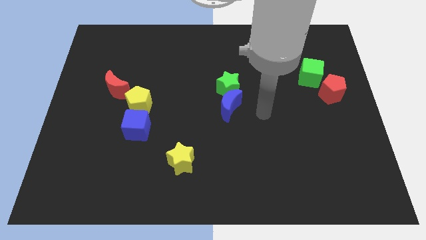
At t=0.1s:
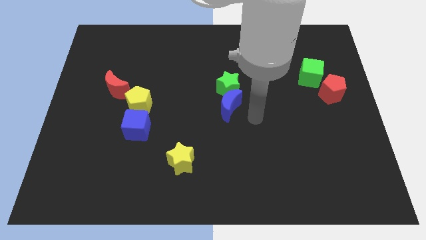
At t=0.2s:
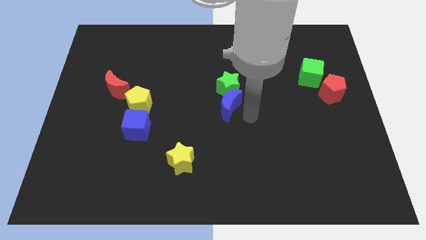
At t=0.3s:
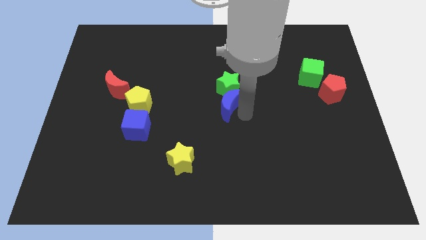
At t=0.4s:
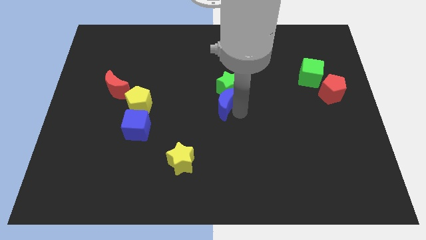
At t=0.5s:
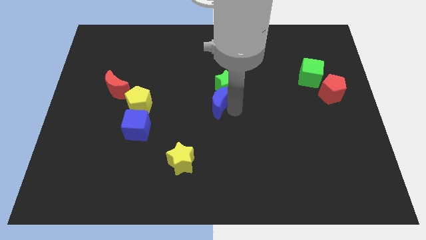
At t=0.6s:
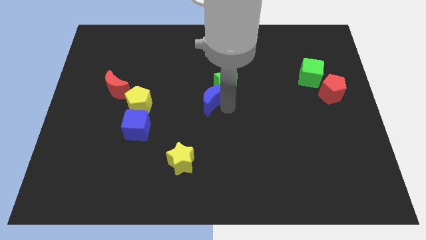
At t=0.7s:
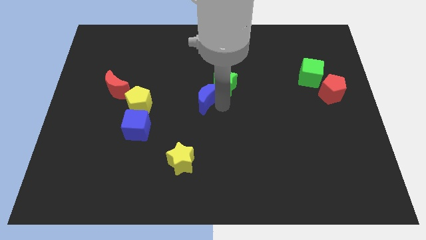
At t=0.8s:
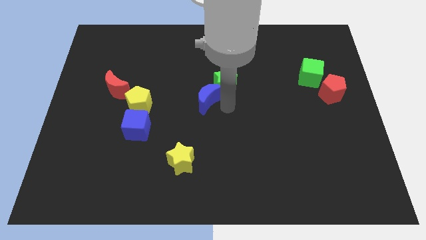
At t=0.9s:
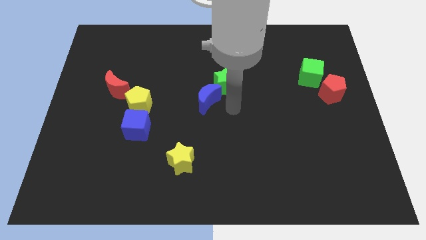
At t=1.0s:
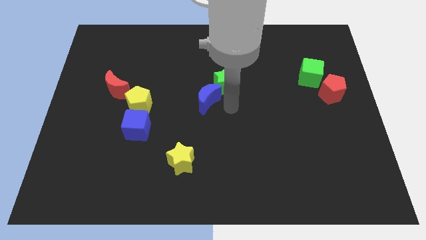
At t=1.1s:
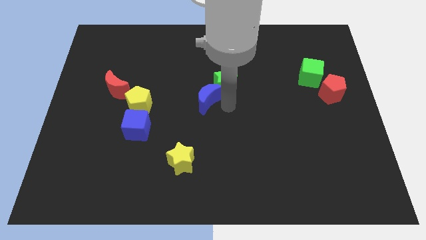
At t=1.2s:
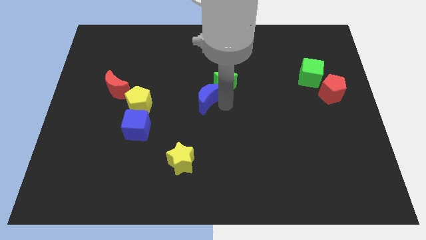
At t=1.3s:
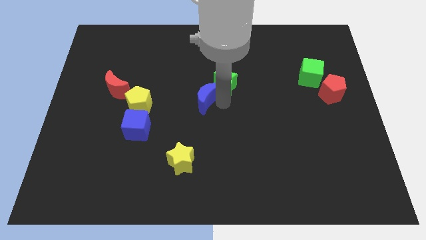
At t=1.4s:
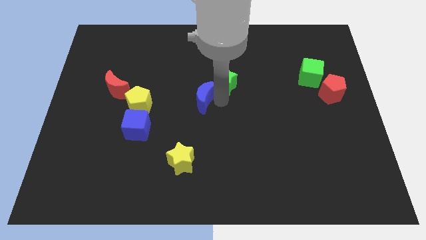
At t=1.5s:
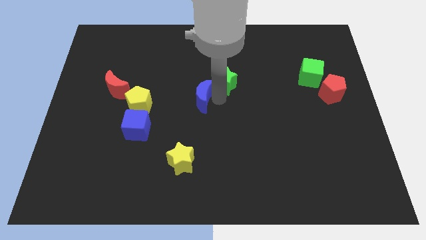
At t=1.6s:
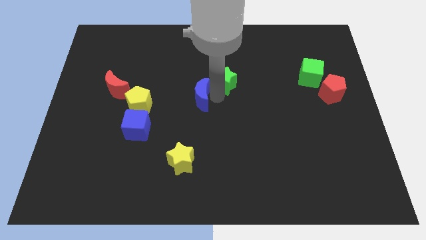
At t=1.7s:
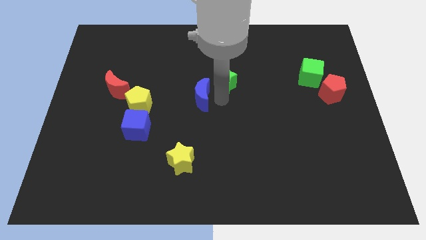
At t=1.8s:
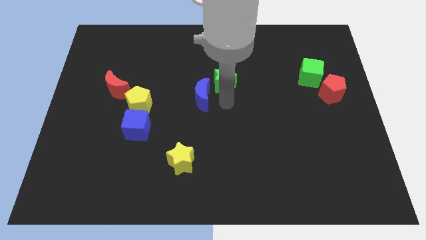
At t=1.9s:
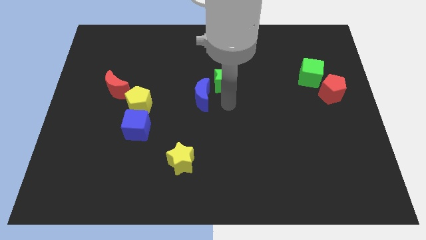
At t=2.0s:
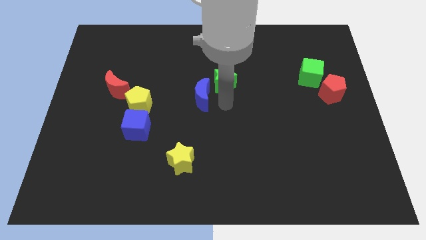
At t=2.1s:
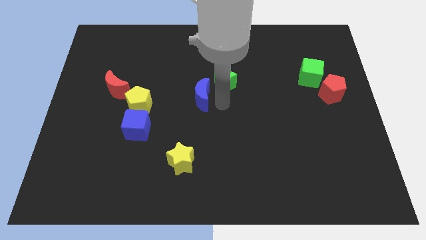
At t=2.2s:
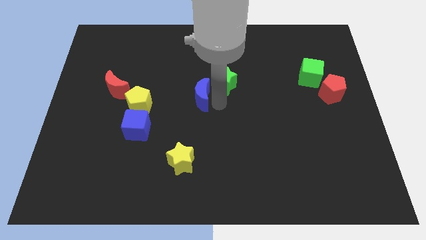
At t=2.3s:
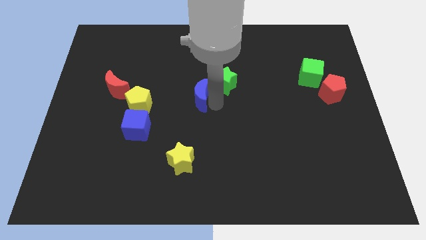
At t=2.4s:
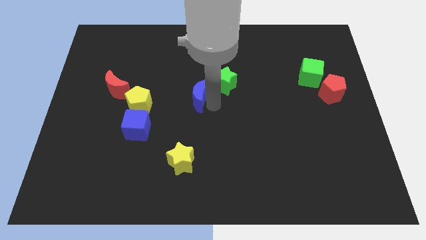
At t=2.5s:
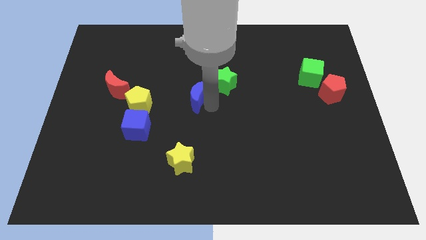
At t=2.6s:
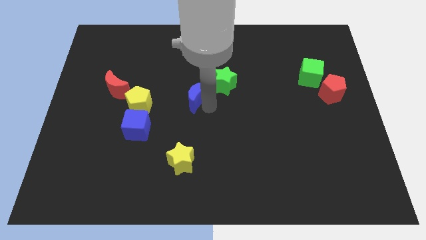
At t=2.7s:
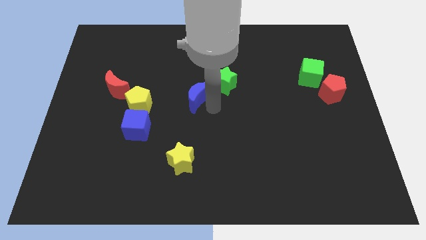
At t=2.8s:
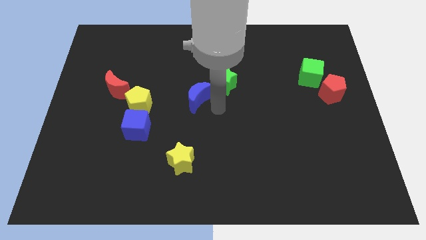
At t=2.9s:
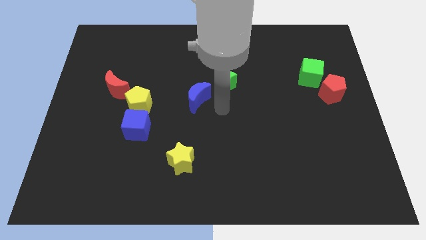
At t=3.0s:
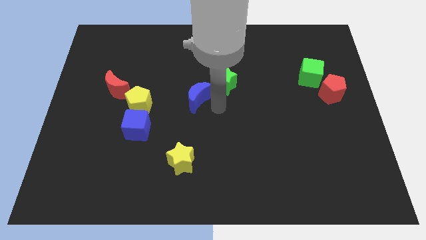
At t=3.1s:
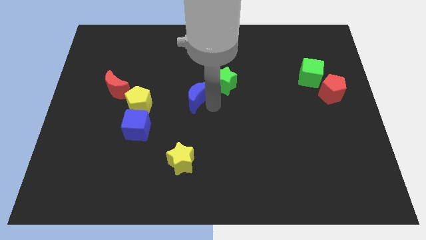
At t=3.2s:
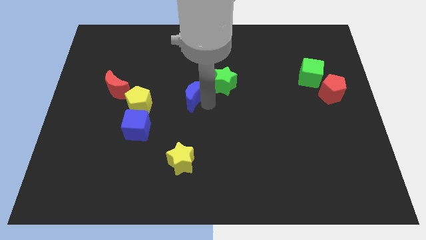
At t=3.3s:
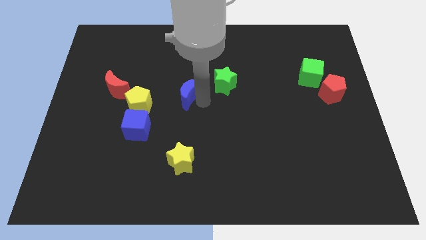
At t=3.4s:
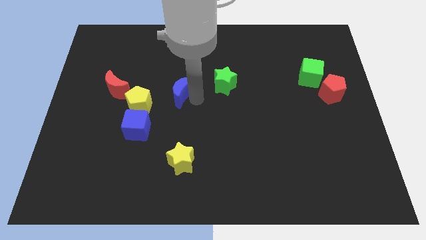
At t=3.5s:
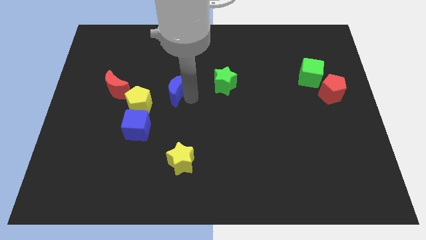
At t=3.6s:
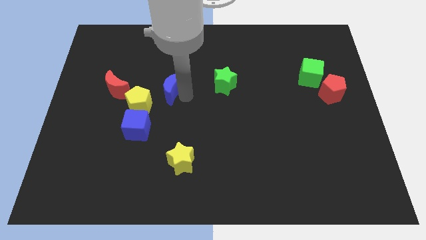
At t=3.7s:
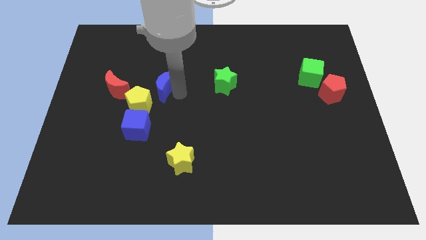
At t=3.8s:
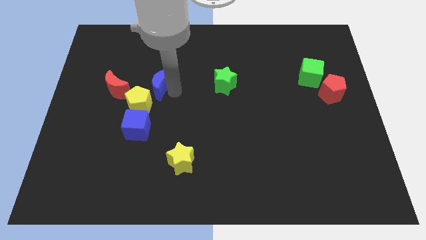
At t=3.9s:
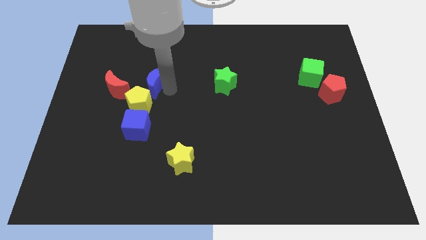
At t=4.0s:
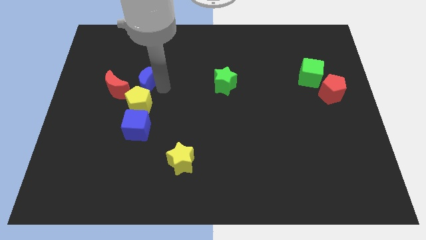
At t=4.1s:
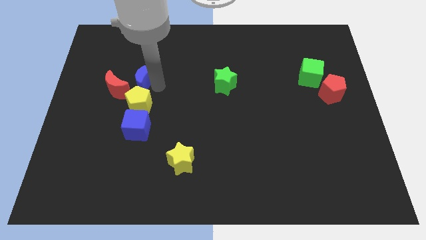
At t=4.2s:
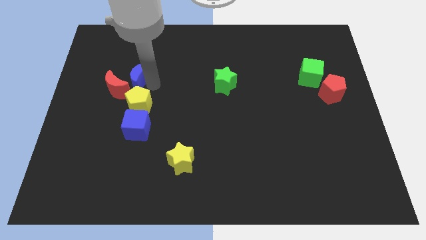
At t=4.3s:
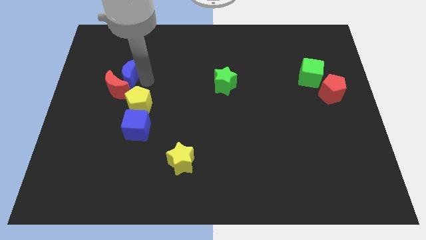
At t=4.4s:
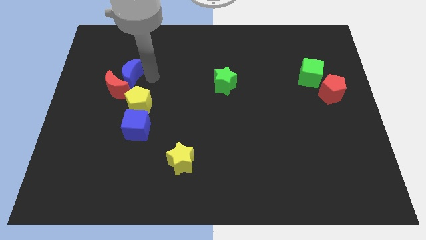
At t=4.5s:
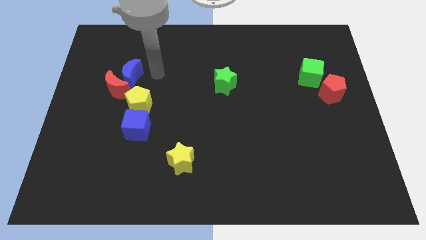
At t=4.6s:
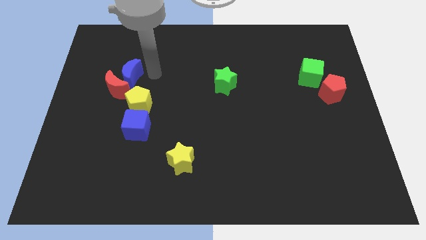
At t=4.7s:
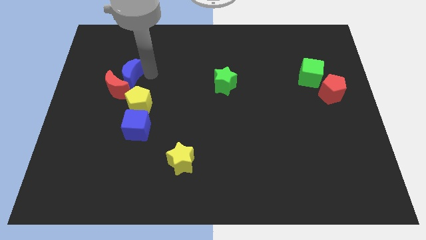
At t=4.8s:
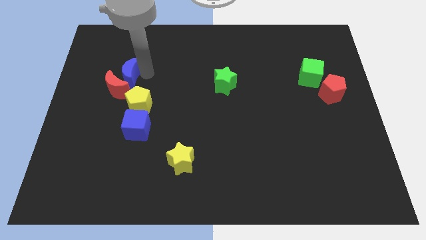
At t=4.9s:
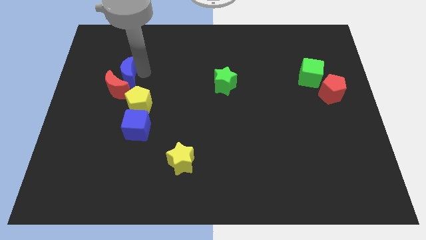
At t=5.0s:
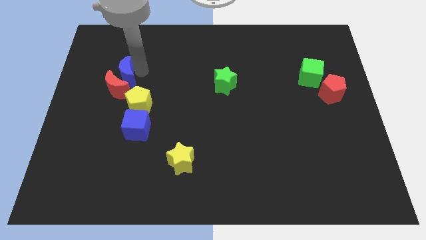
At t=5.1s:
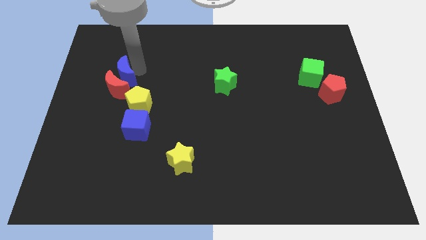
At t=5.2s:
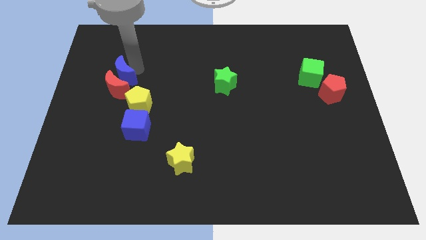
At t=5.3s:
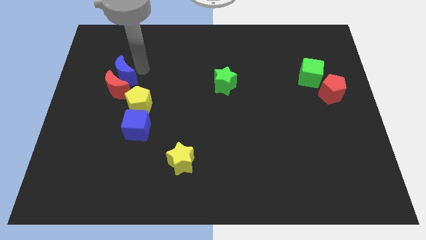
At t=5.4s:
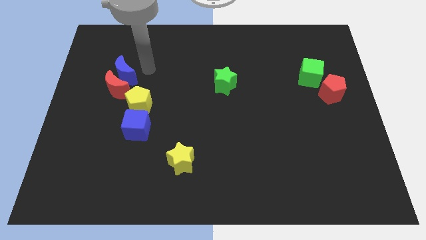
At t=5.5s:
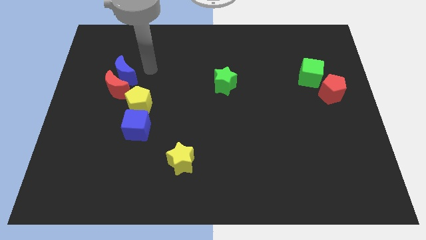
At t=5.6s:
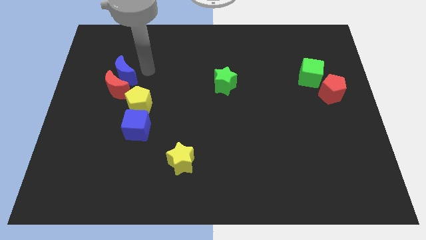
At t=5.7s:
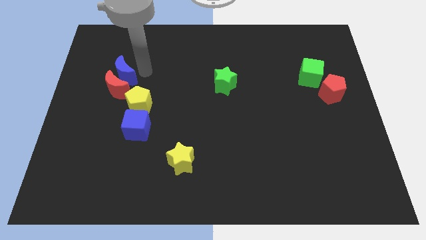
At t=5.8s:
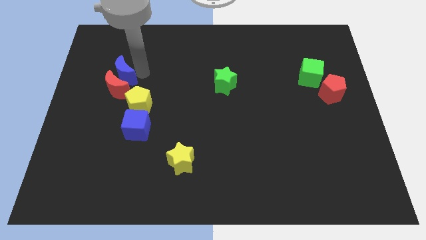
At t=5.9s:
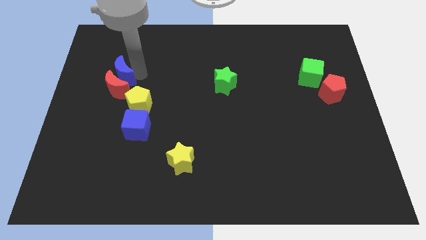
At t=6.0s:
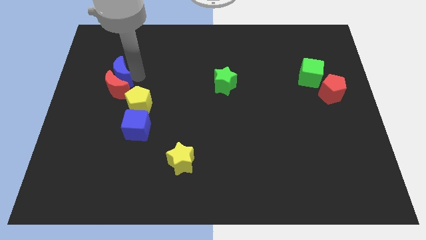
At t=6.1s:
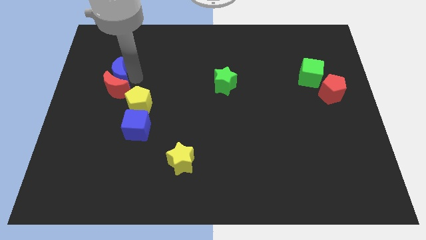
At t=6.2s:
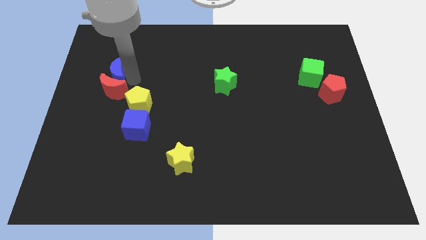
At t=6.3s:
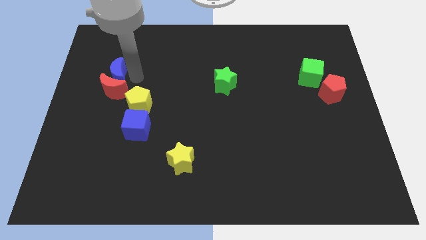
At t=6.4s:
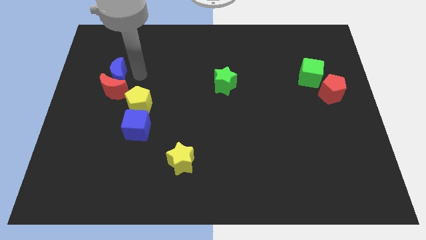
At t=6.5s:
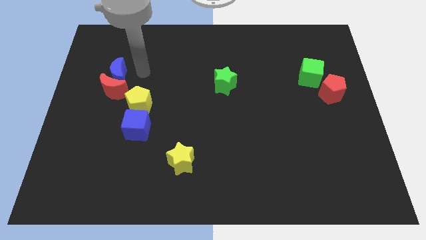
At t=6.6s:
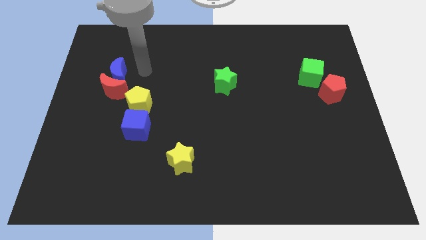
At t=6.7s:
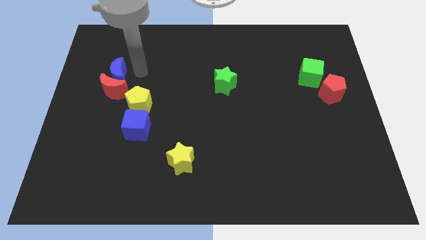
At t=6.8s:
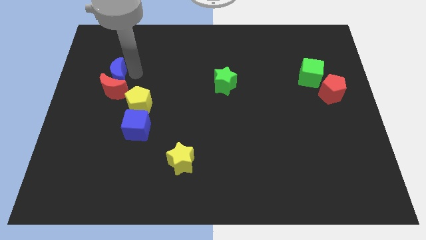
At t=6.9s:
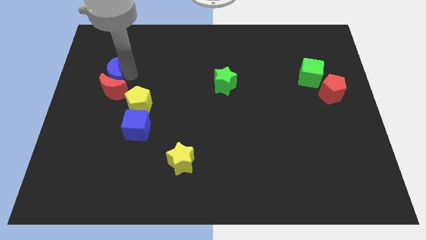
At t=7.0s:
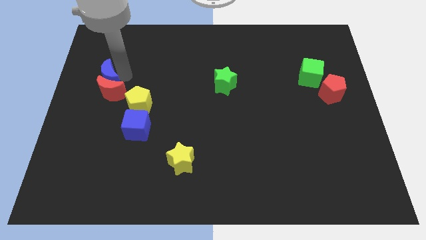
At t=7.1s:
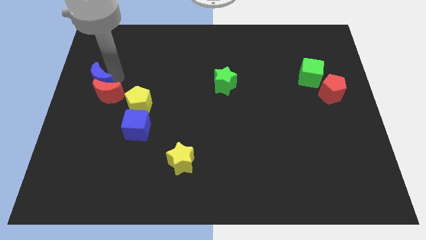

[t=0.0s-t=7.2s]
move the blue moon to the left side of the board
